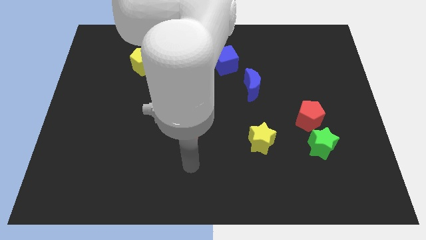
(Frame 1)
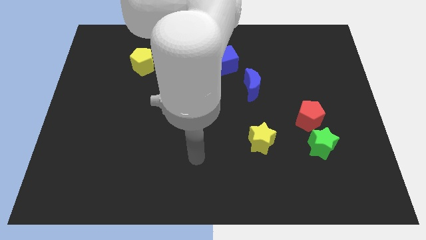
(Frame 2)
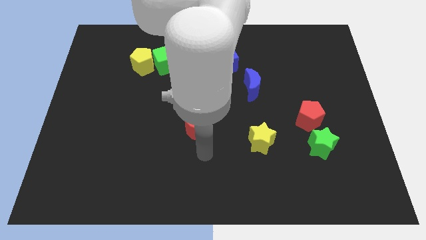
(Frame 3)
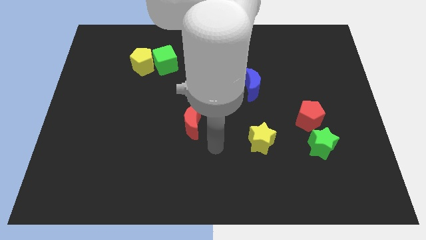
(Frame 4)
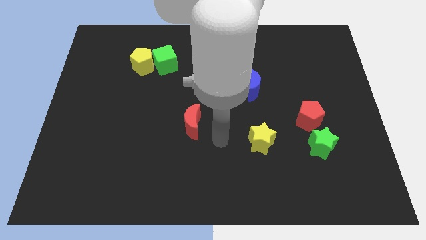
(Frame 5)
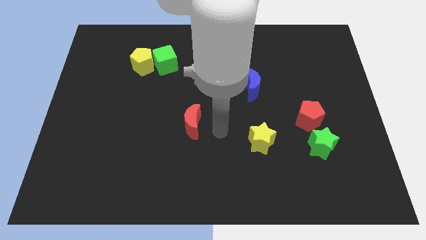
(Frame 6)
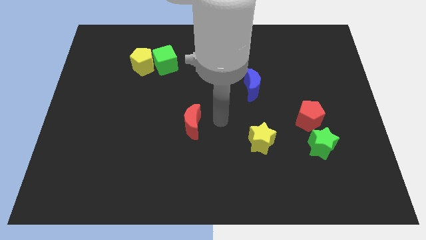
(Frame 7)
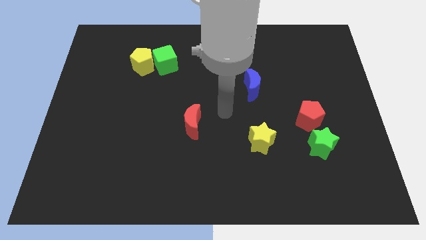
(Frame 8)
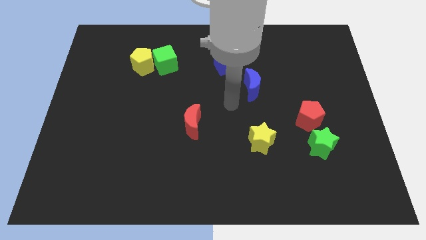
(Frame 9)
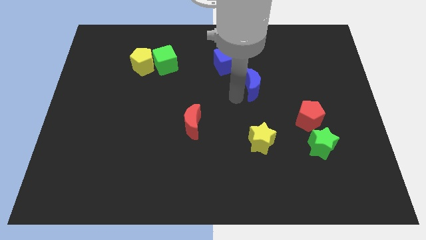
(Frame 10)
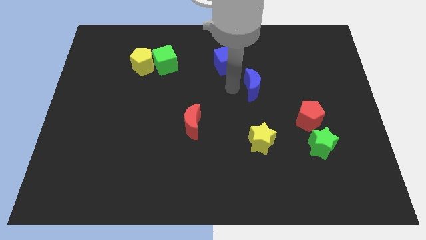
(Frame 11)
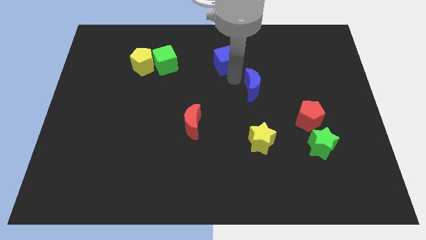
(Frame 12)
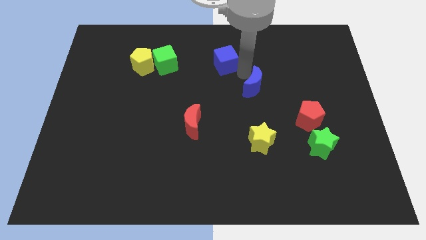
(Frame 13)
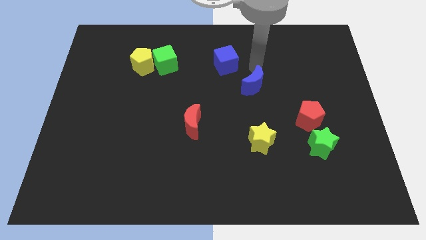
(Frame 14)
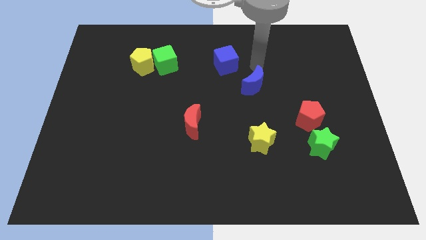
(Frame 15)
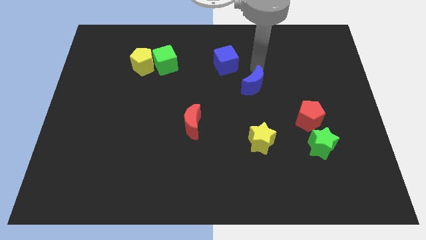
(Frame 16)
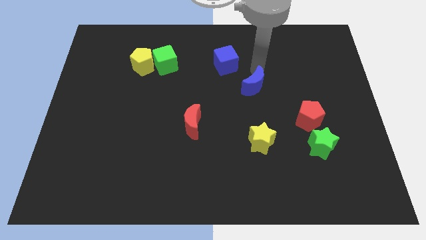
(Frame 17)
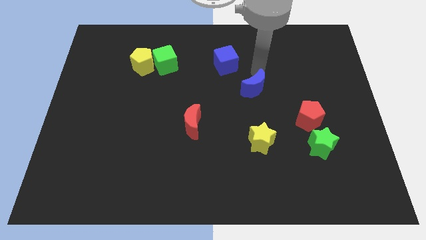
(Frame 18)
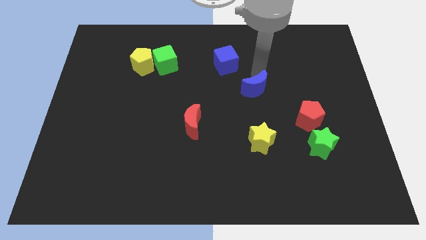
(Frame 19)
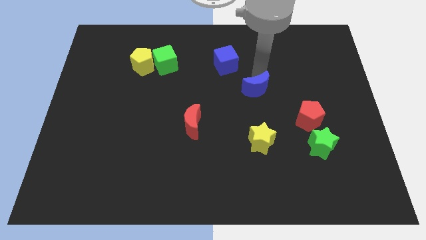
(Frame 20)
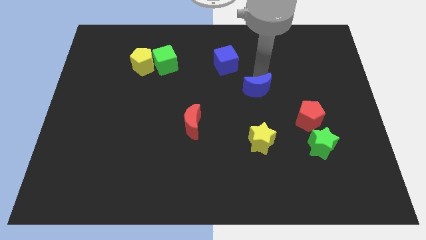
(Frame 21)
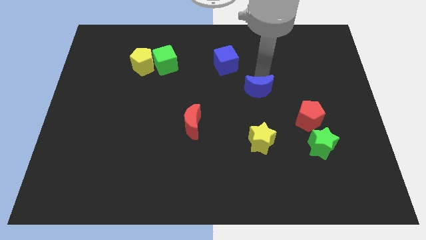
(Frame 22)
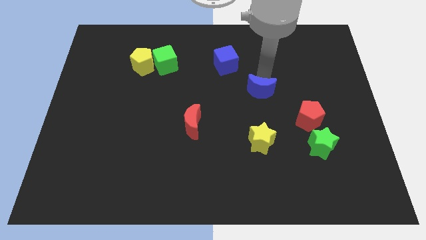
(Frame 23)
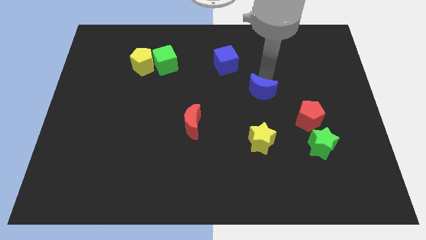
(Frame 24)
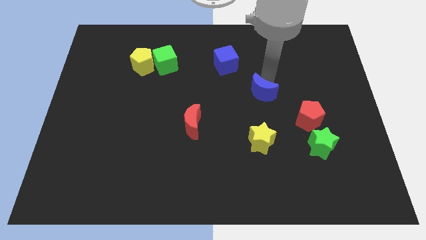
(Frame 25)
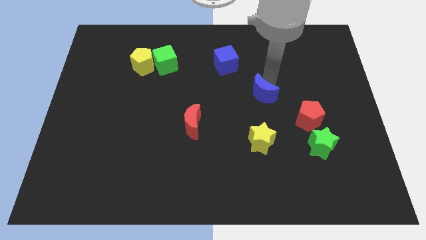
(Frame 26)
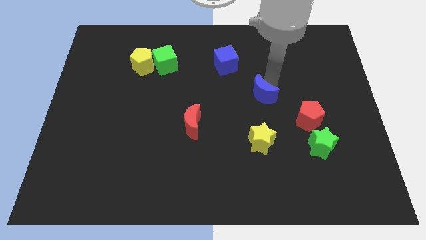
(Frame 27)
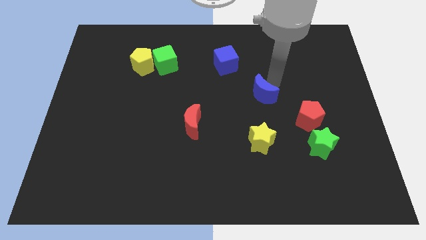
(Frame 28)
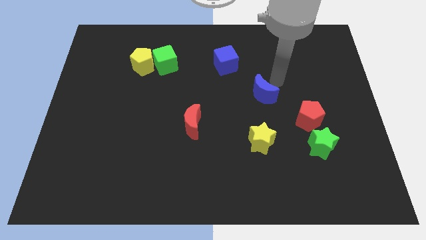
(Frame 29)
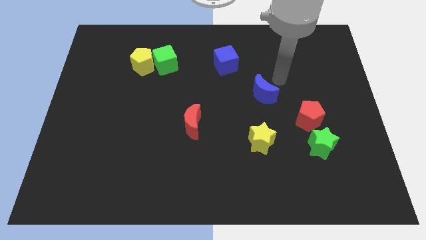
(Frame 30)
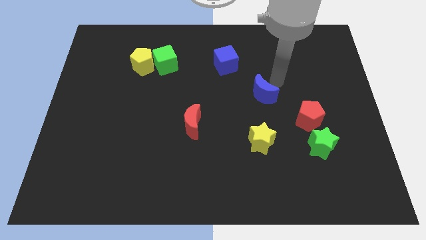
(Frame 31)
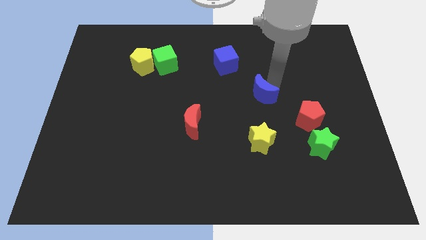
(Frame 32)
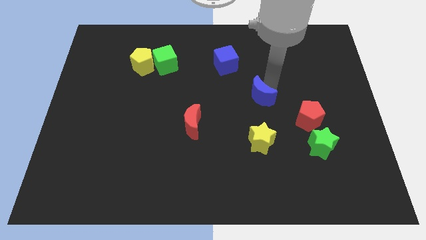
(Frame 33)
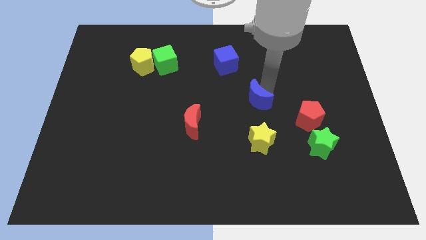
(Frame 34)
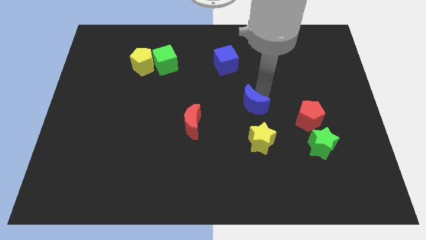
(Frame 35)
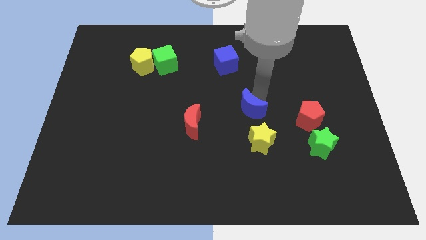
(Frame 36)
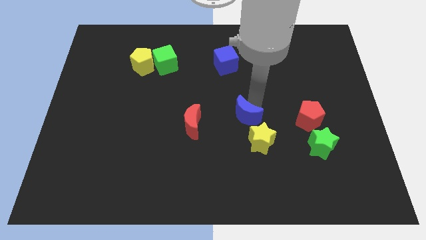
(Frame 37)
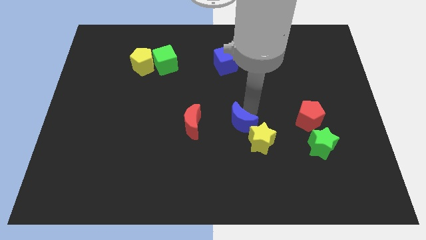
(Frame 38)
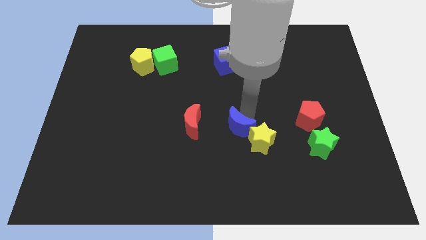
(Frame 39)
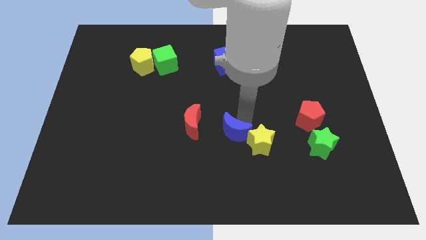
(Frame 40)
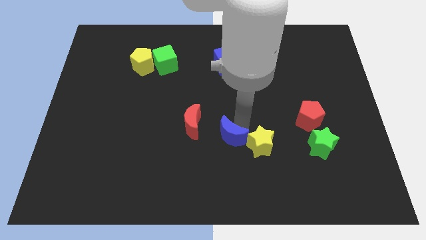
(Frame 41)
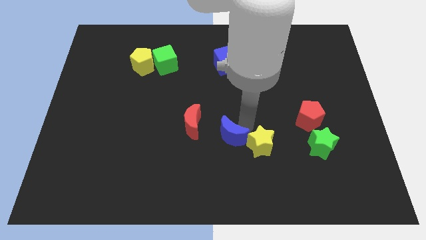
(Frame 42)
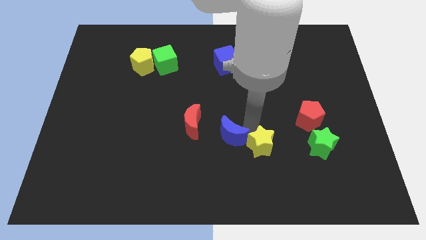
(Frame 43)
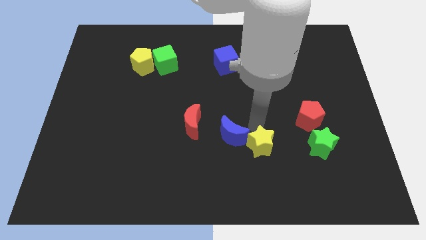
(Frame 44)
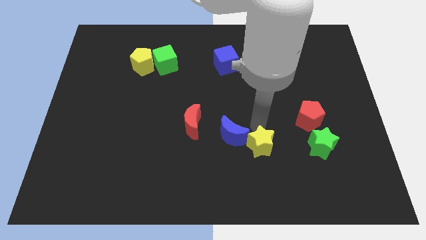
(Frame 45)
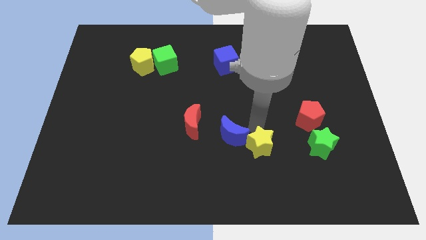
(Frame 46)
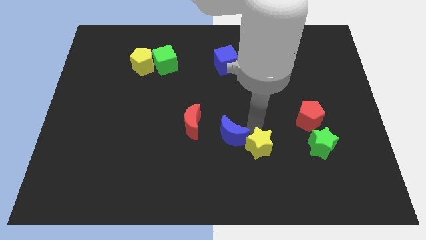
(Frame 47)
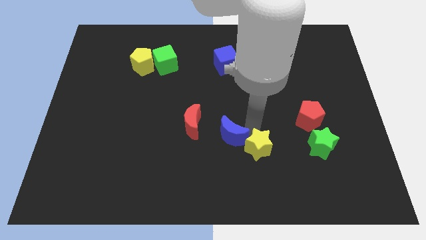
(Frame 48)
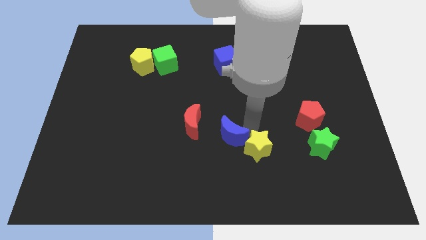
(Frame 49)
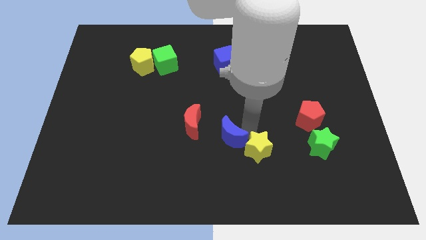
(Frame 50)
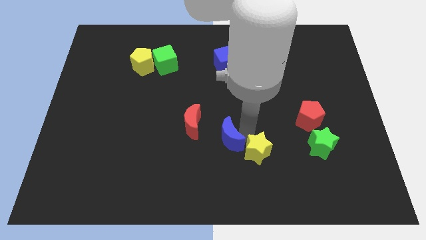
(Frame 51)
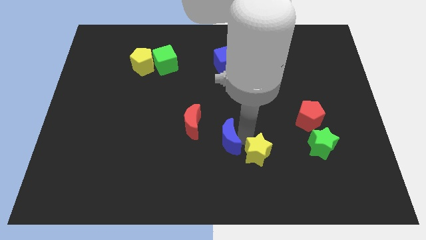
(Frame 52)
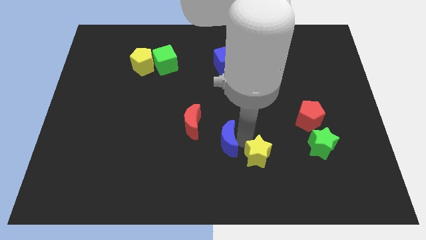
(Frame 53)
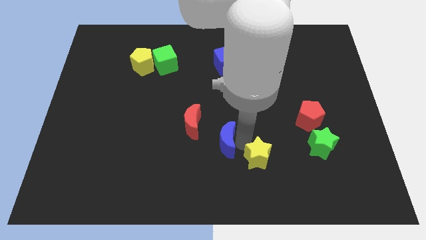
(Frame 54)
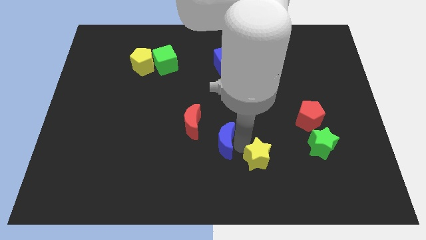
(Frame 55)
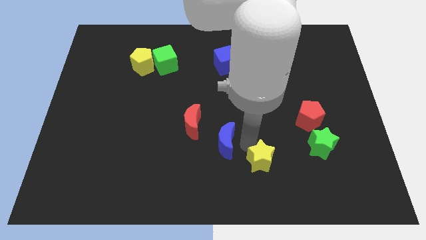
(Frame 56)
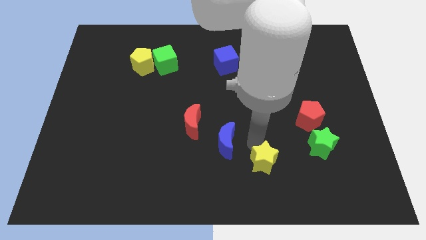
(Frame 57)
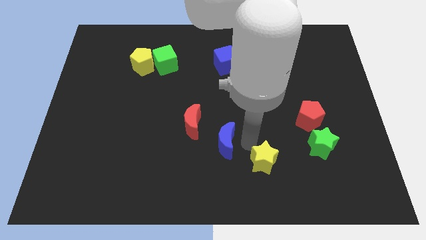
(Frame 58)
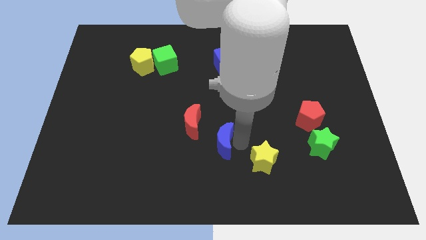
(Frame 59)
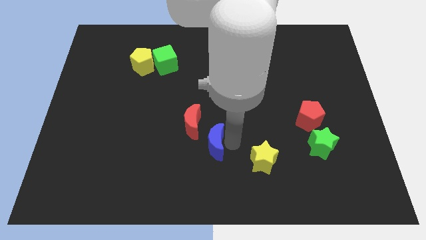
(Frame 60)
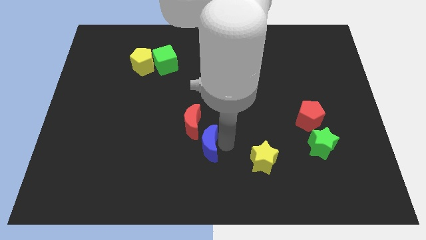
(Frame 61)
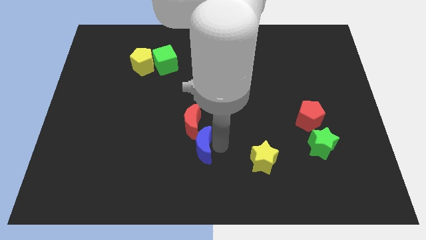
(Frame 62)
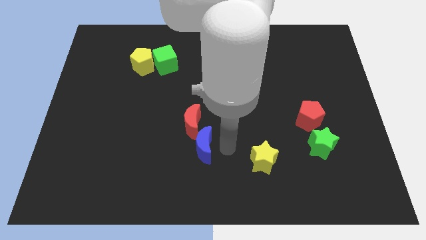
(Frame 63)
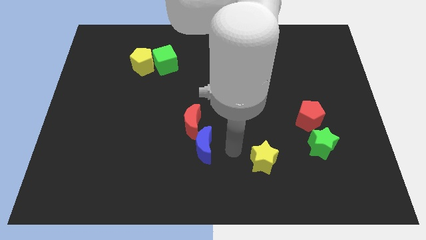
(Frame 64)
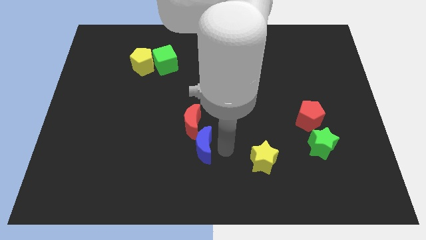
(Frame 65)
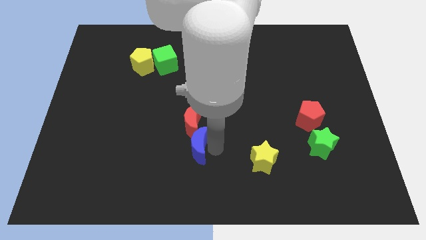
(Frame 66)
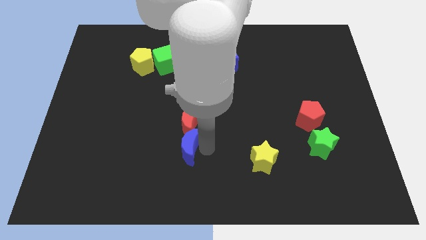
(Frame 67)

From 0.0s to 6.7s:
push the blue moon diagonally down and to the left of the red moon
